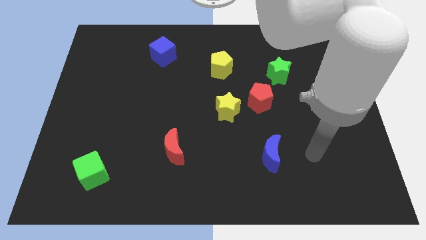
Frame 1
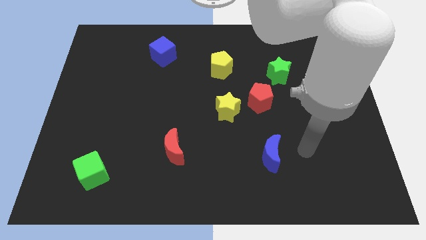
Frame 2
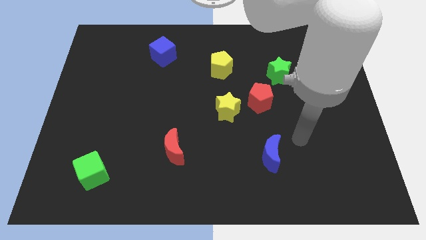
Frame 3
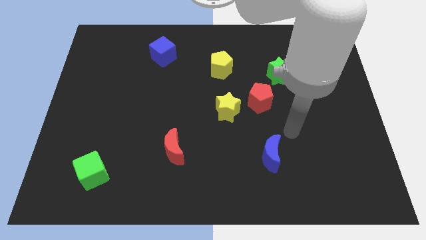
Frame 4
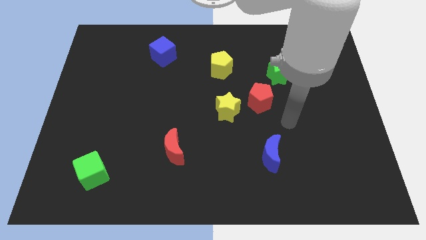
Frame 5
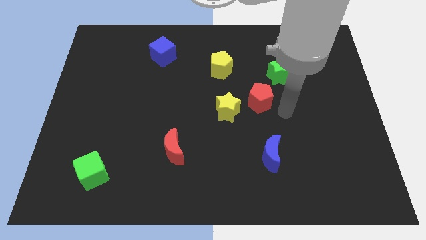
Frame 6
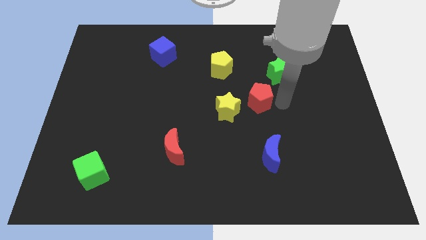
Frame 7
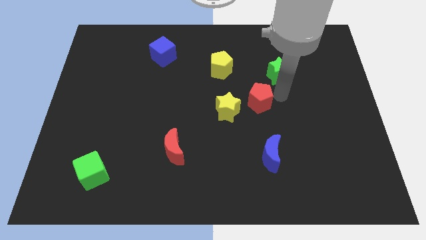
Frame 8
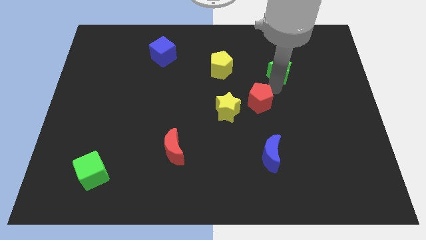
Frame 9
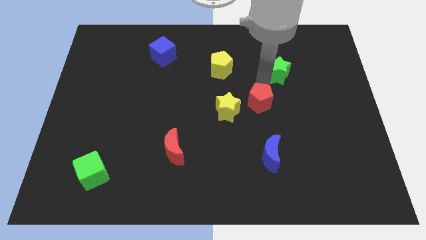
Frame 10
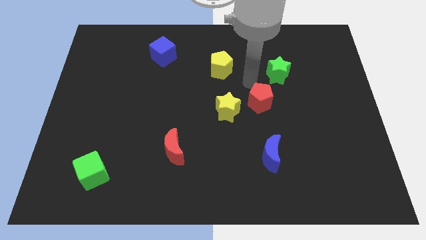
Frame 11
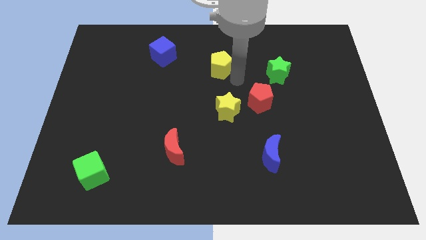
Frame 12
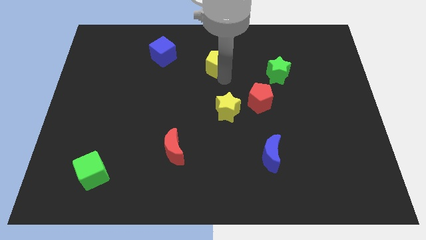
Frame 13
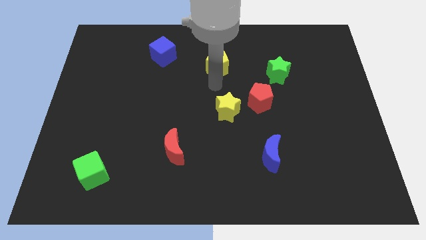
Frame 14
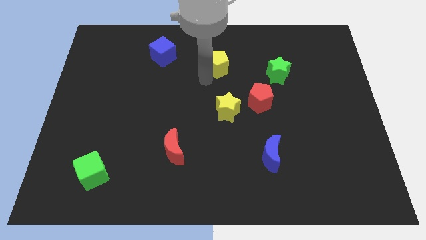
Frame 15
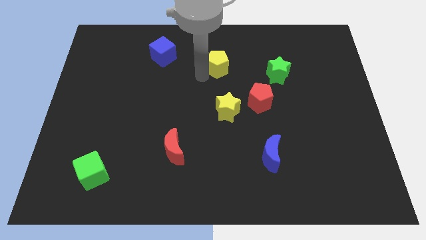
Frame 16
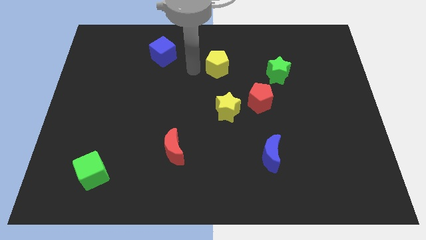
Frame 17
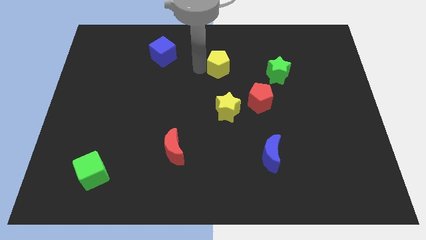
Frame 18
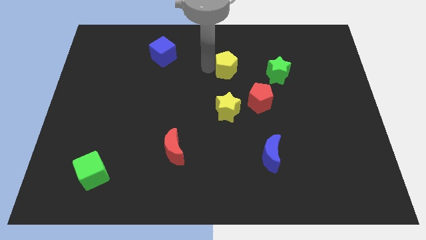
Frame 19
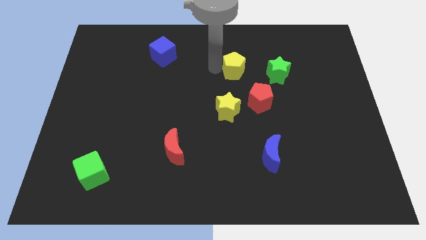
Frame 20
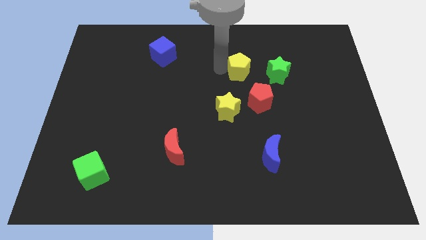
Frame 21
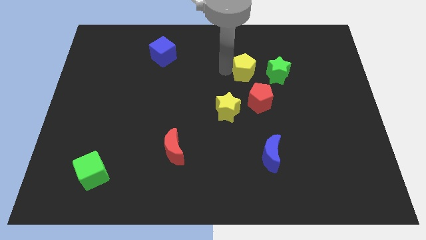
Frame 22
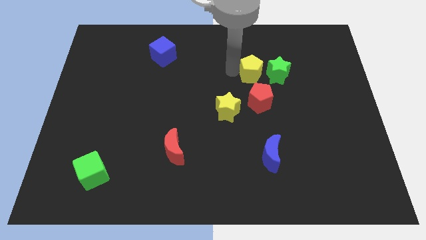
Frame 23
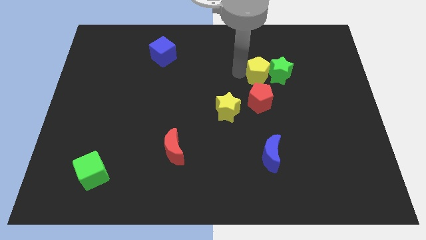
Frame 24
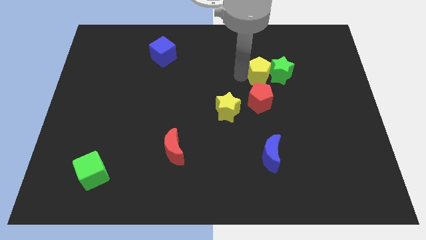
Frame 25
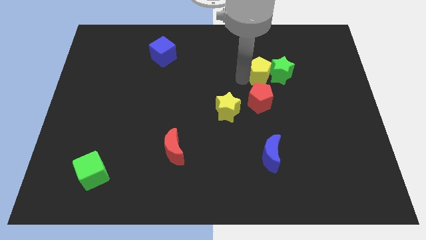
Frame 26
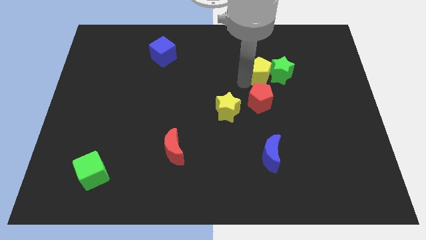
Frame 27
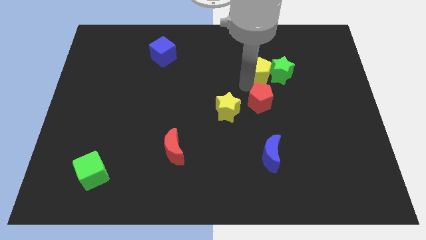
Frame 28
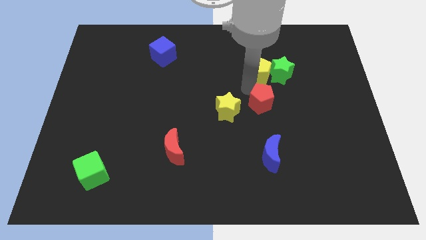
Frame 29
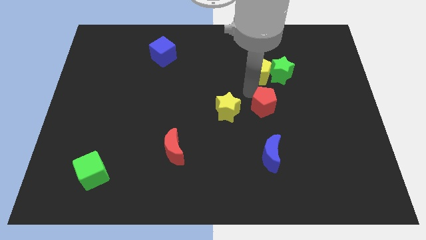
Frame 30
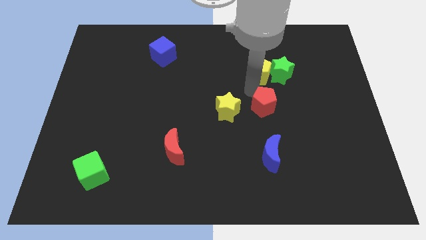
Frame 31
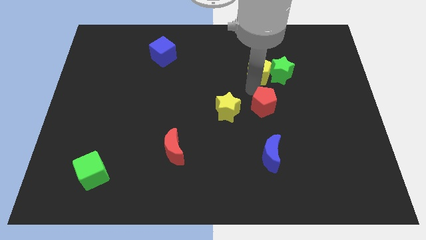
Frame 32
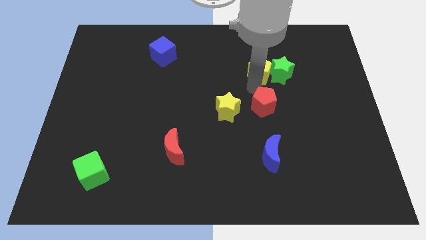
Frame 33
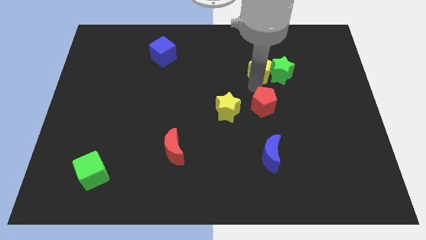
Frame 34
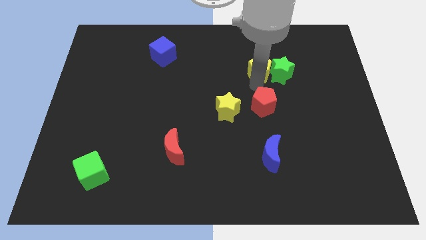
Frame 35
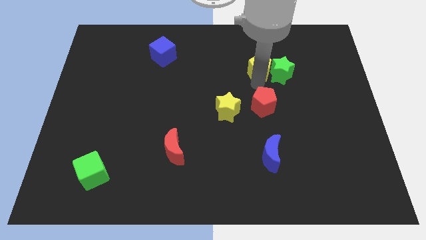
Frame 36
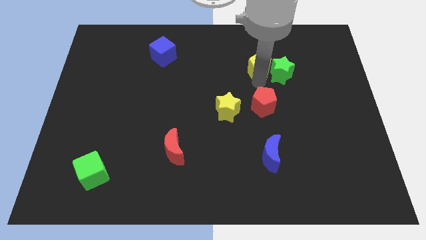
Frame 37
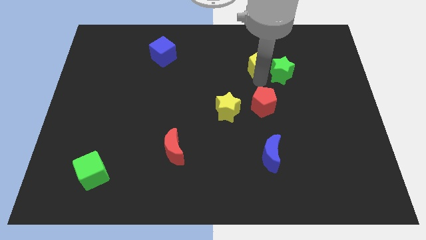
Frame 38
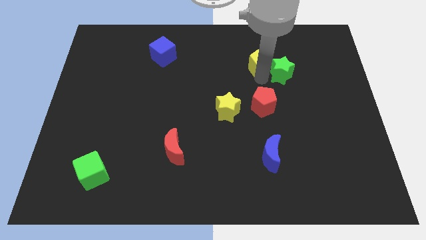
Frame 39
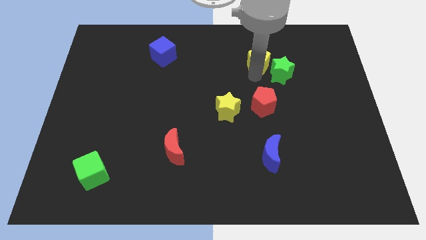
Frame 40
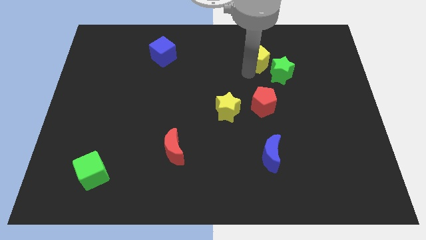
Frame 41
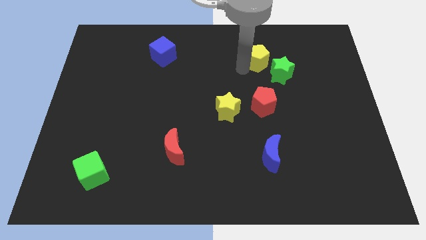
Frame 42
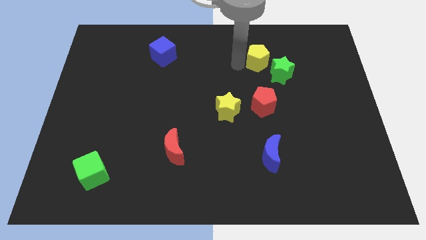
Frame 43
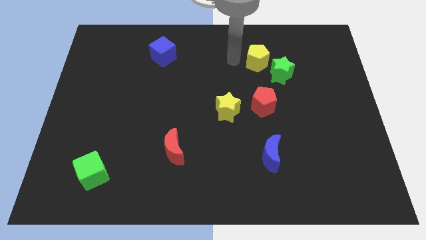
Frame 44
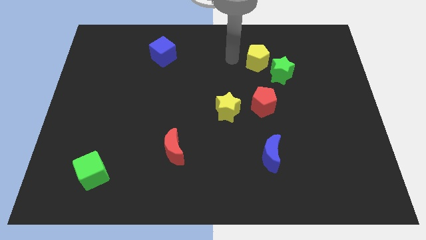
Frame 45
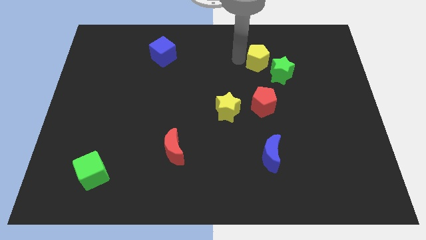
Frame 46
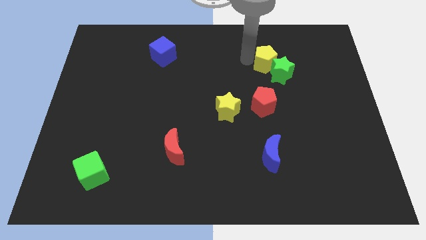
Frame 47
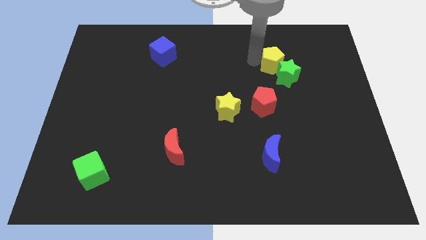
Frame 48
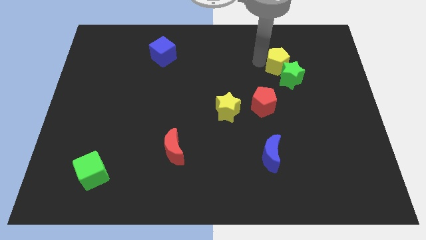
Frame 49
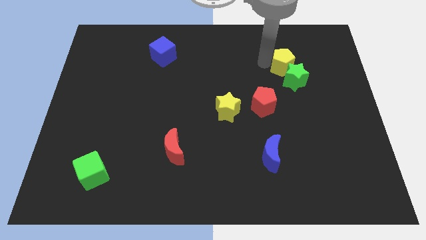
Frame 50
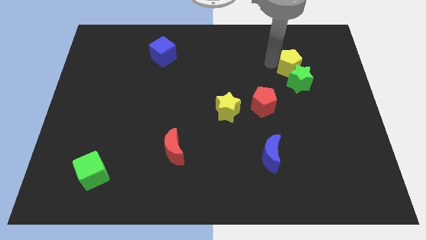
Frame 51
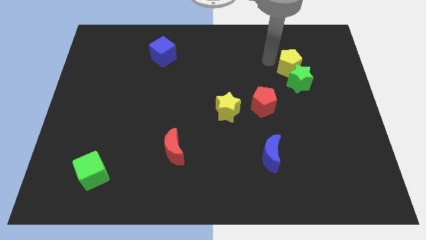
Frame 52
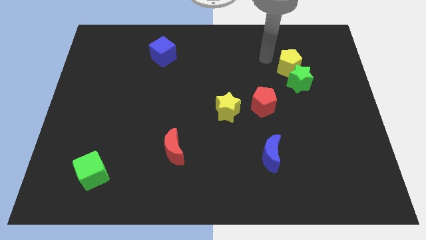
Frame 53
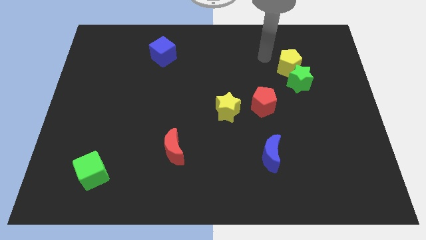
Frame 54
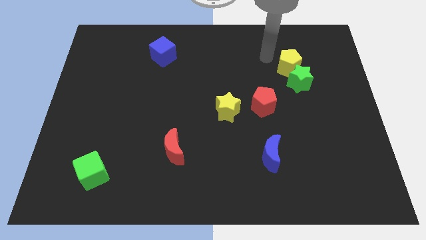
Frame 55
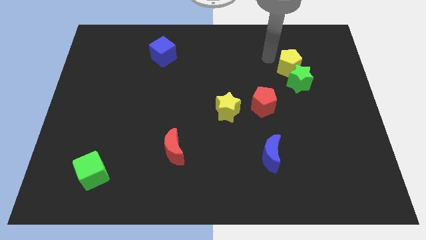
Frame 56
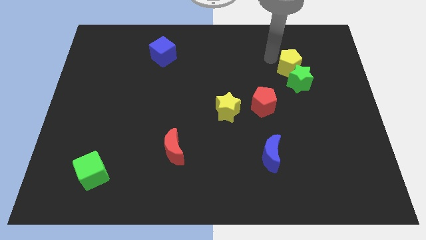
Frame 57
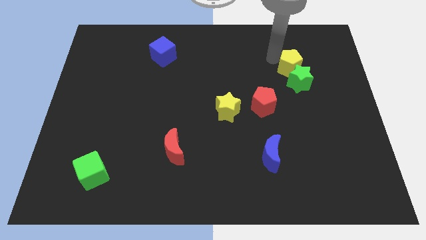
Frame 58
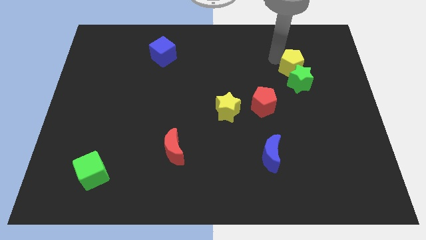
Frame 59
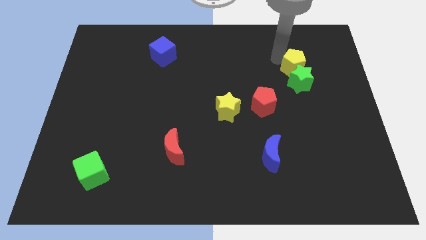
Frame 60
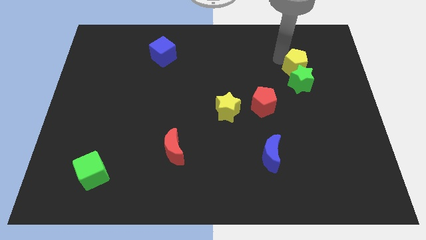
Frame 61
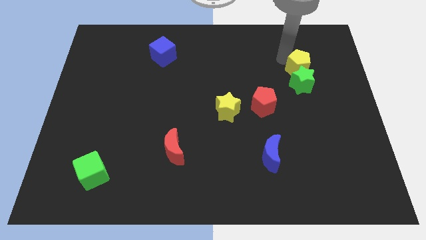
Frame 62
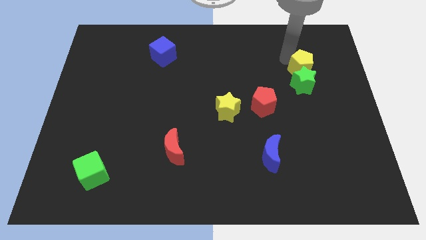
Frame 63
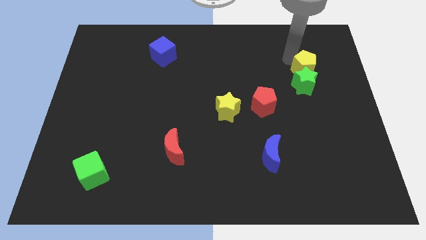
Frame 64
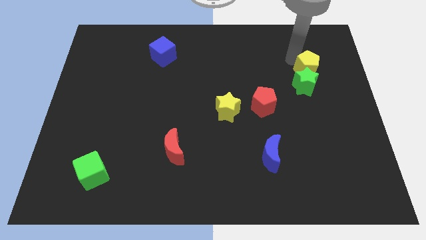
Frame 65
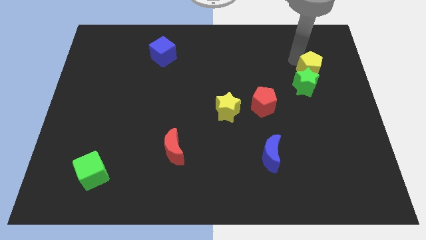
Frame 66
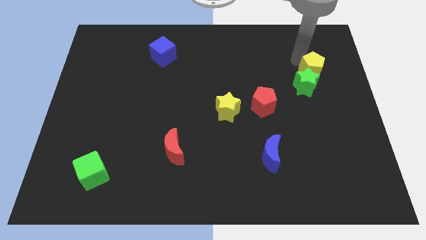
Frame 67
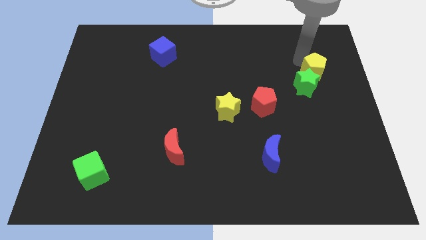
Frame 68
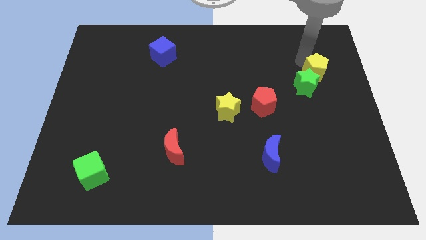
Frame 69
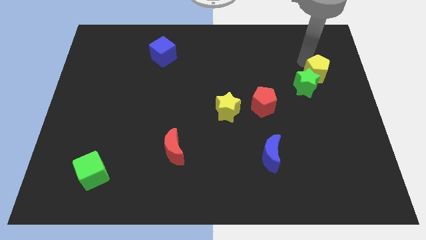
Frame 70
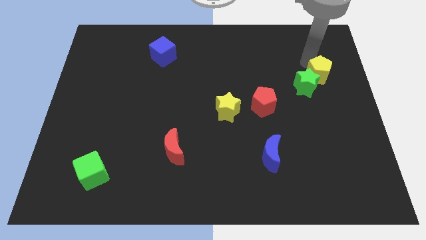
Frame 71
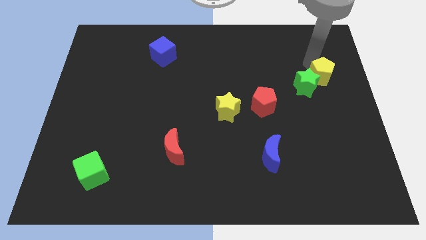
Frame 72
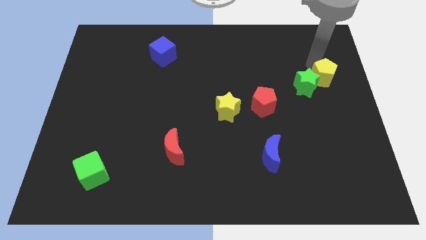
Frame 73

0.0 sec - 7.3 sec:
move the yellow pentagon to the right side
